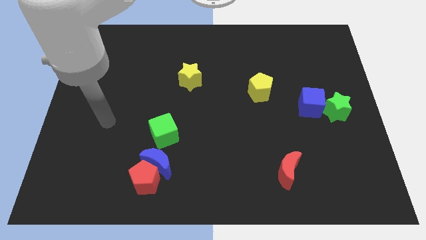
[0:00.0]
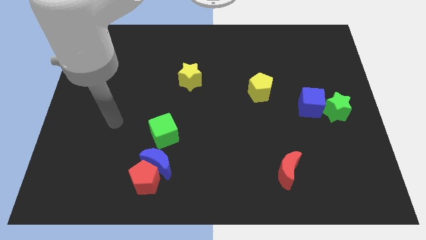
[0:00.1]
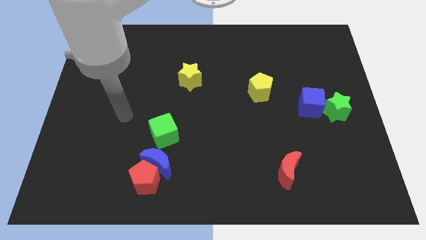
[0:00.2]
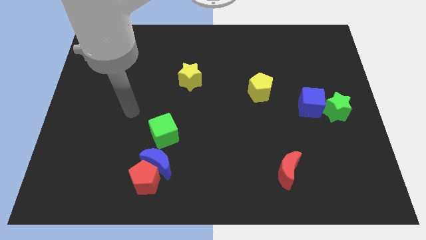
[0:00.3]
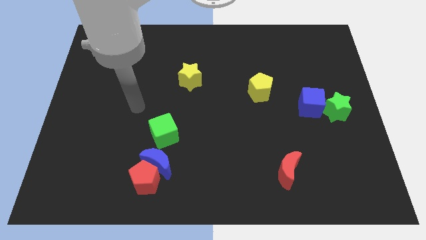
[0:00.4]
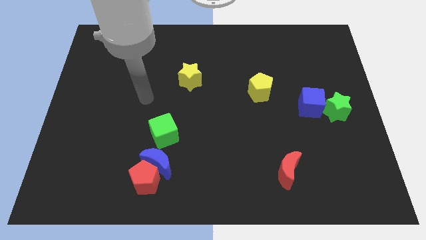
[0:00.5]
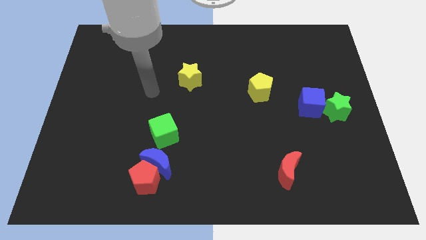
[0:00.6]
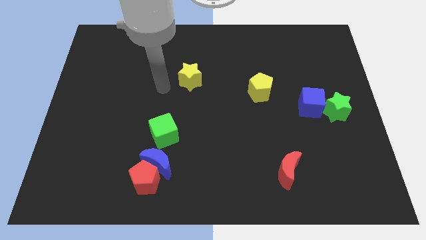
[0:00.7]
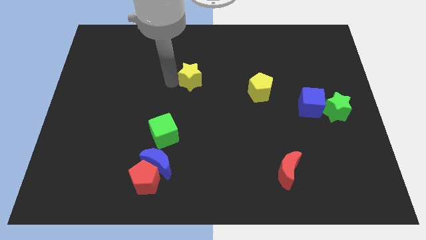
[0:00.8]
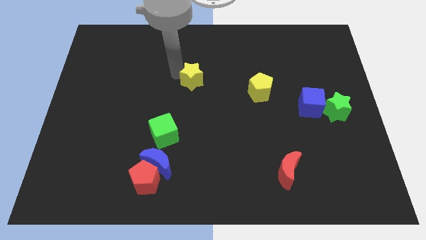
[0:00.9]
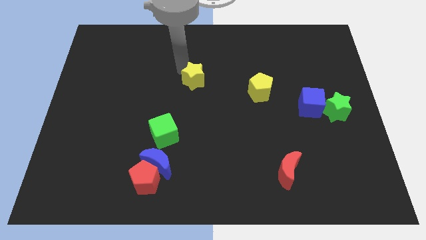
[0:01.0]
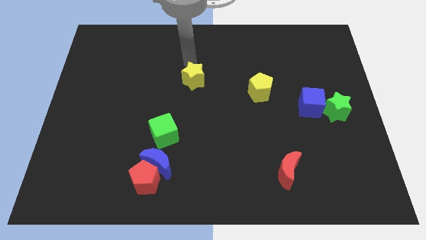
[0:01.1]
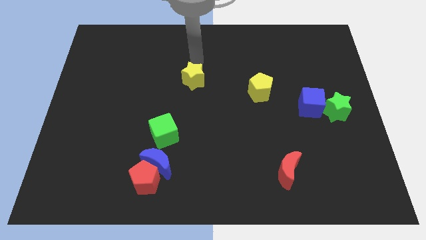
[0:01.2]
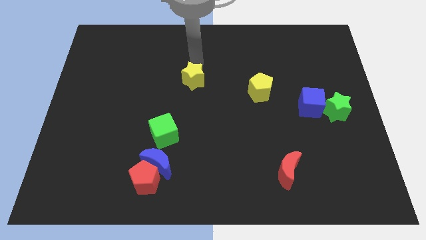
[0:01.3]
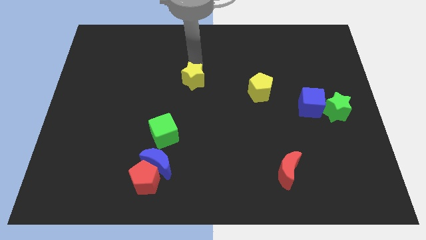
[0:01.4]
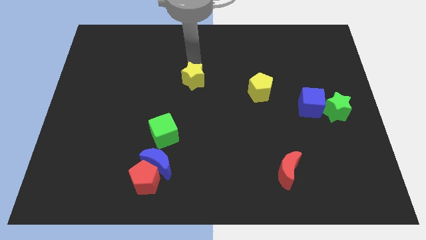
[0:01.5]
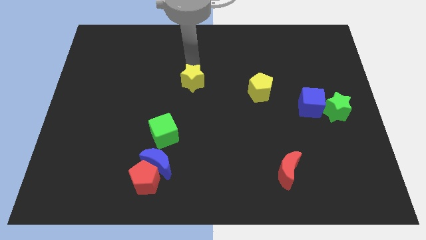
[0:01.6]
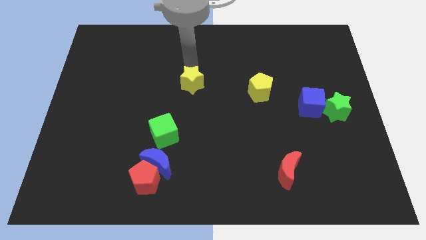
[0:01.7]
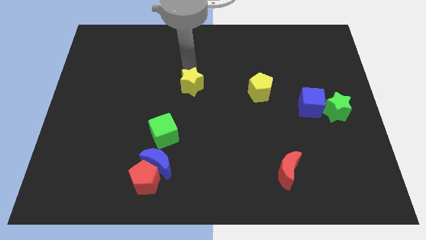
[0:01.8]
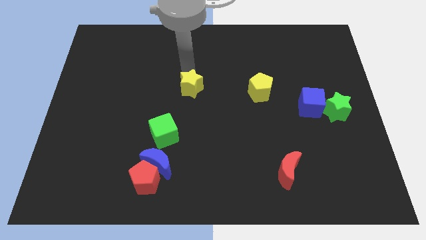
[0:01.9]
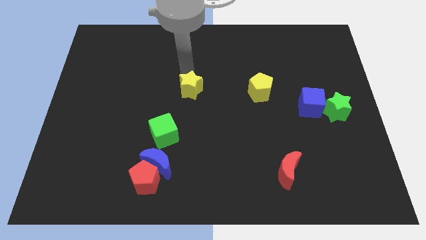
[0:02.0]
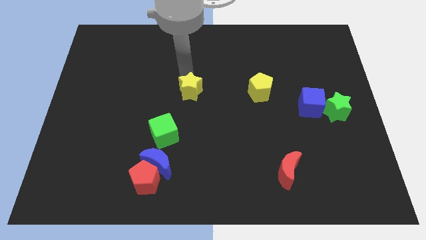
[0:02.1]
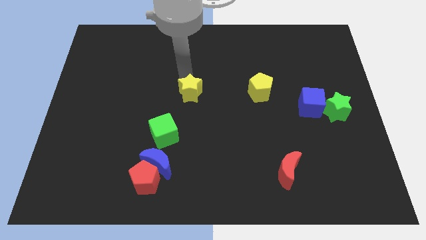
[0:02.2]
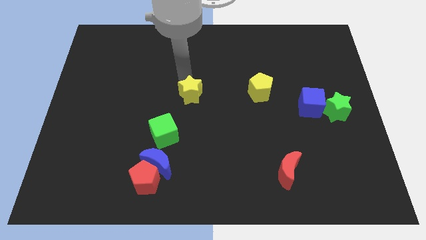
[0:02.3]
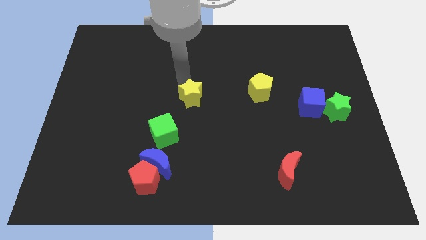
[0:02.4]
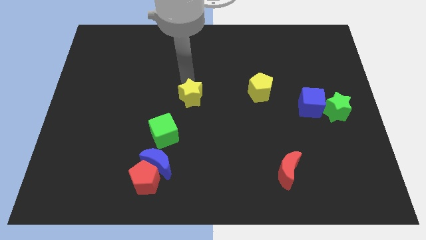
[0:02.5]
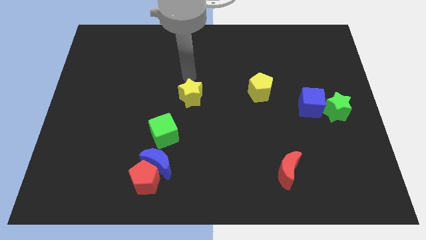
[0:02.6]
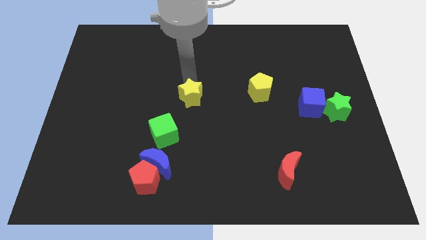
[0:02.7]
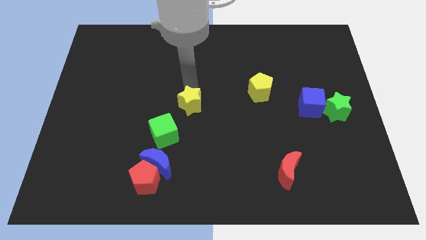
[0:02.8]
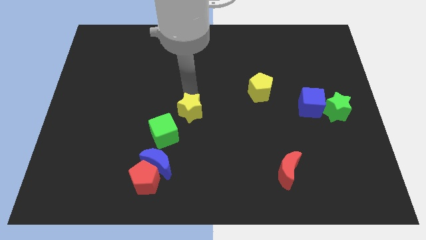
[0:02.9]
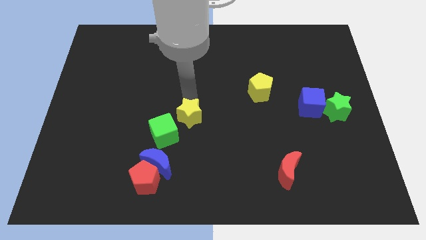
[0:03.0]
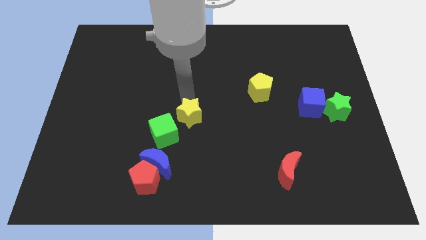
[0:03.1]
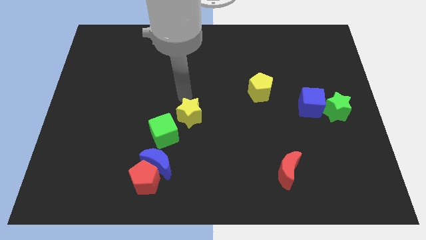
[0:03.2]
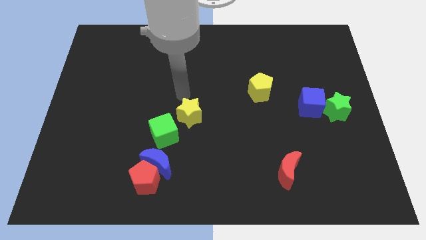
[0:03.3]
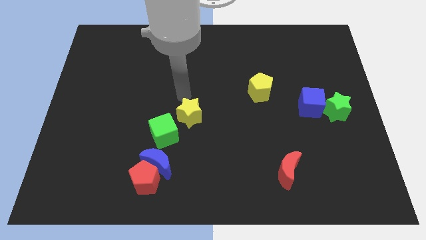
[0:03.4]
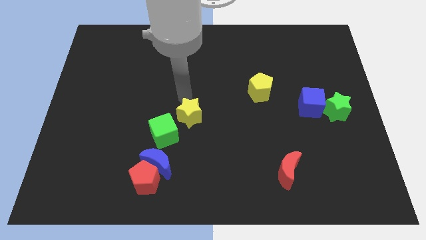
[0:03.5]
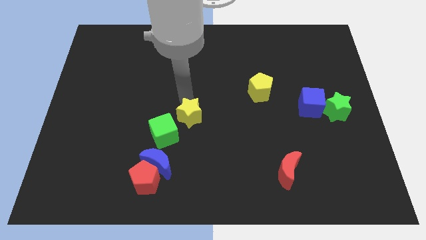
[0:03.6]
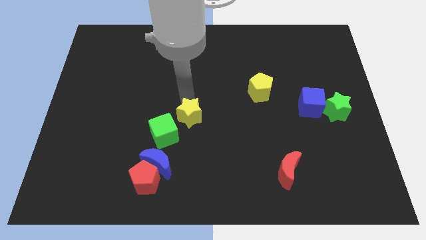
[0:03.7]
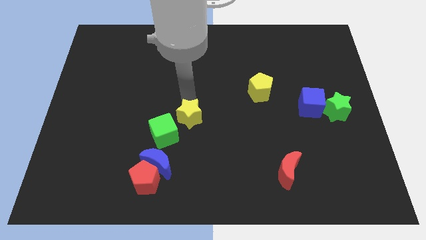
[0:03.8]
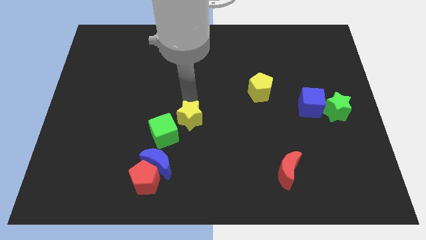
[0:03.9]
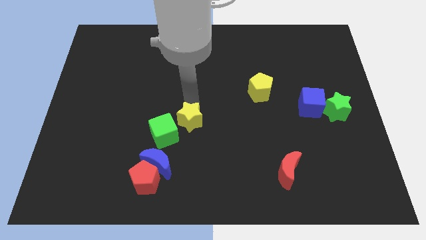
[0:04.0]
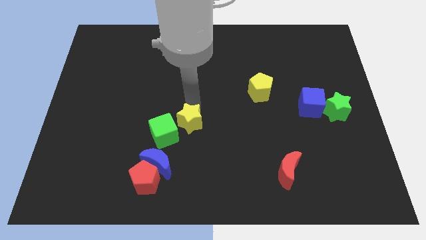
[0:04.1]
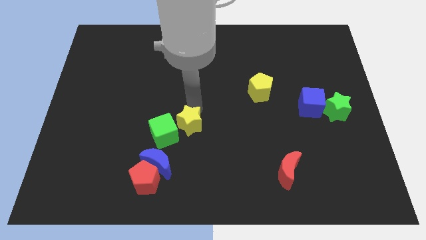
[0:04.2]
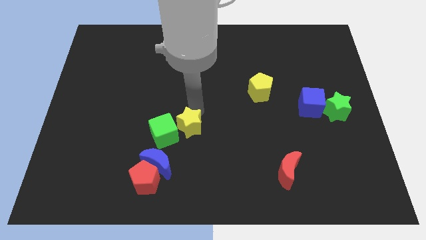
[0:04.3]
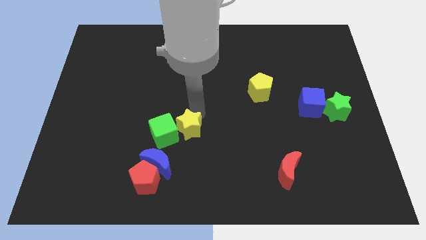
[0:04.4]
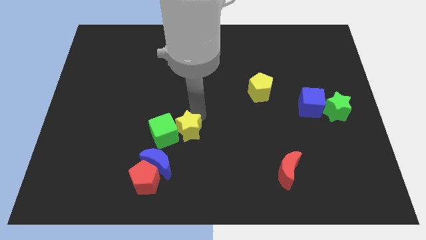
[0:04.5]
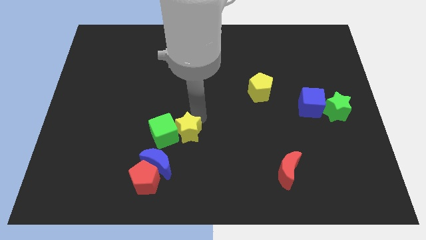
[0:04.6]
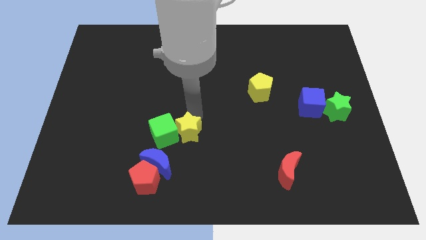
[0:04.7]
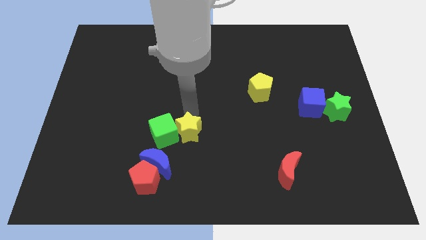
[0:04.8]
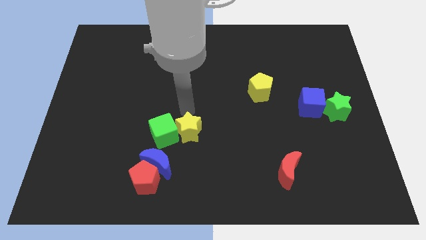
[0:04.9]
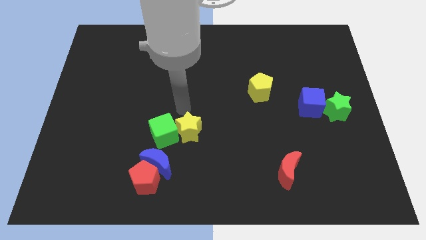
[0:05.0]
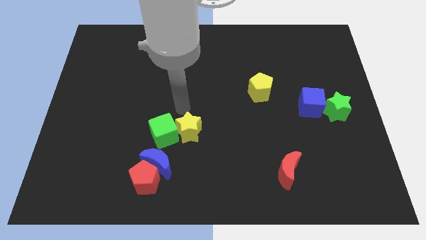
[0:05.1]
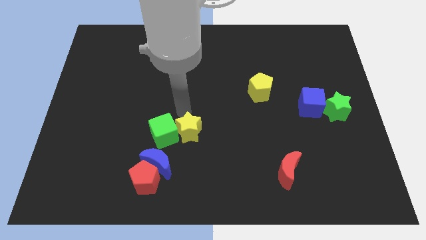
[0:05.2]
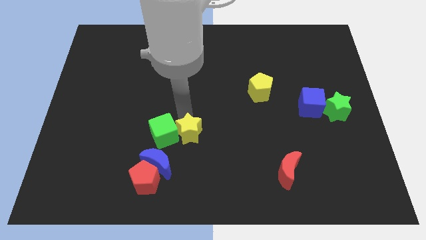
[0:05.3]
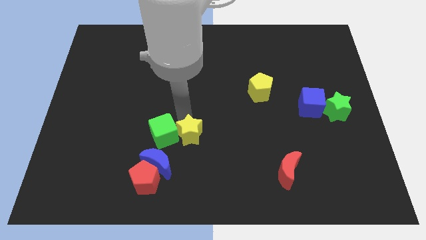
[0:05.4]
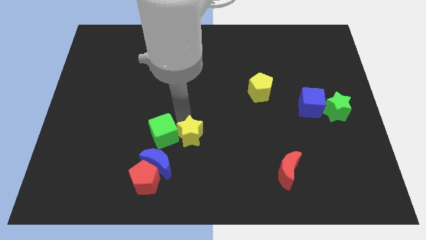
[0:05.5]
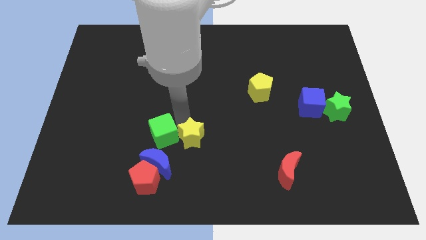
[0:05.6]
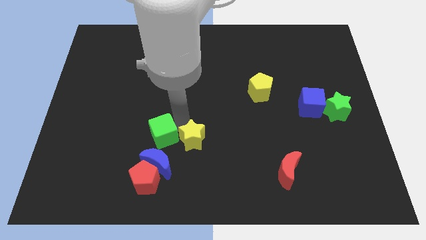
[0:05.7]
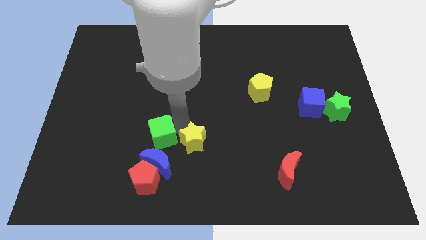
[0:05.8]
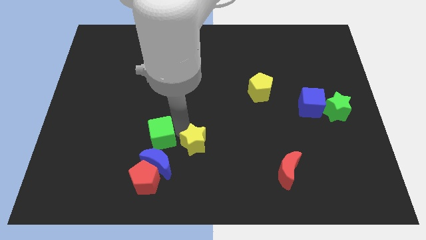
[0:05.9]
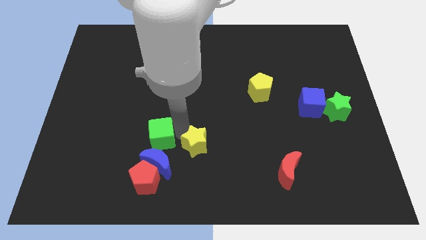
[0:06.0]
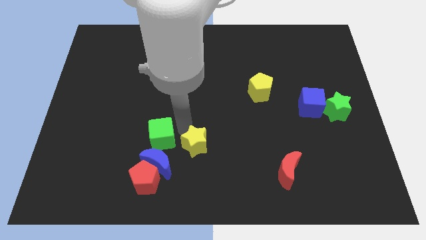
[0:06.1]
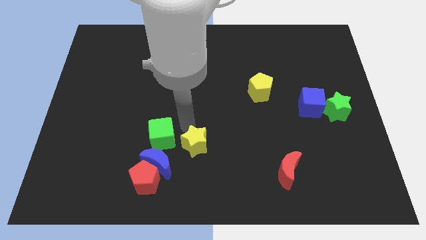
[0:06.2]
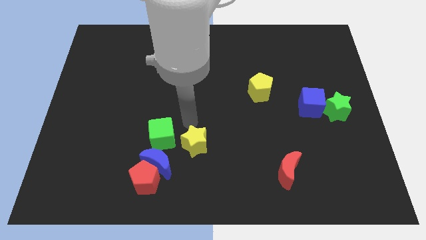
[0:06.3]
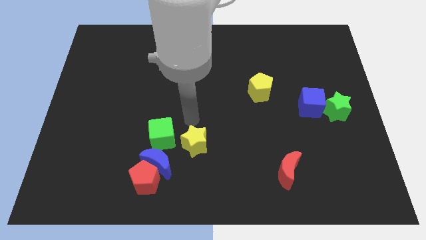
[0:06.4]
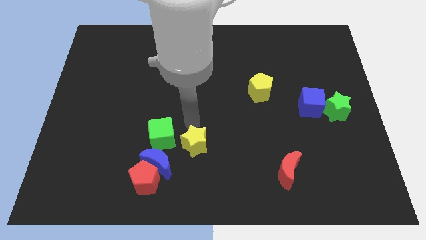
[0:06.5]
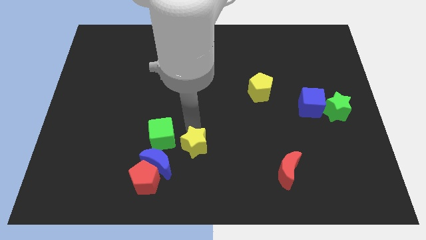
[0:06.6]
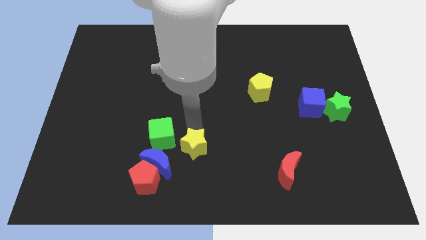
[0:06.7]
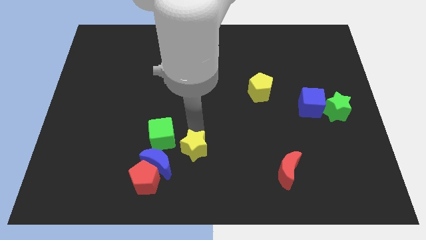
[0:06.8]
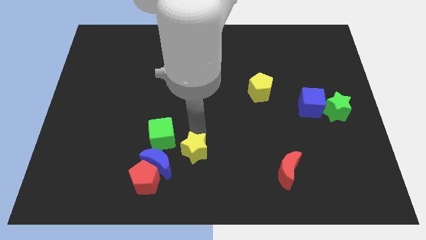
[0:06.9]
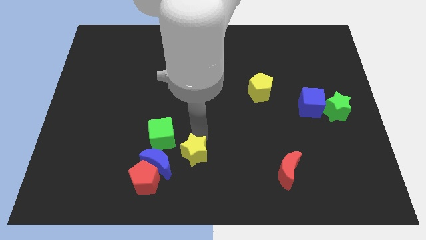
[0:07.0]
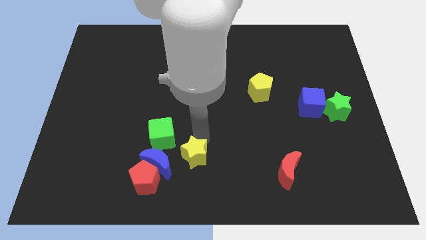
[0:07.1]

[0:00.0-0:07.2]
put the yellow star to the bottom

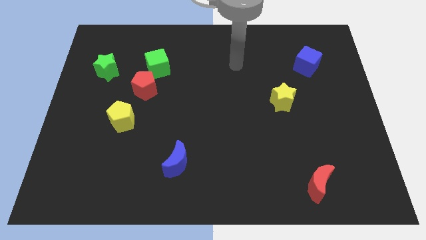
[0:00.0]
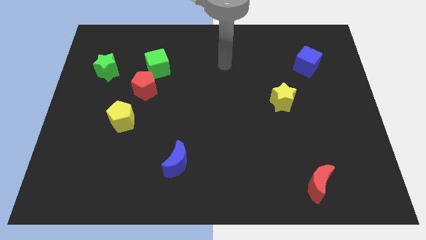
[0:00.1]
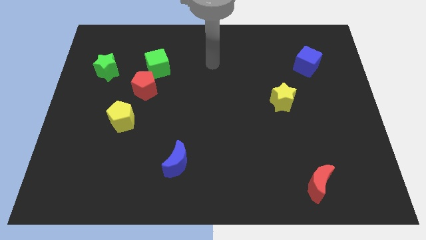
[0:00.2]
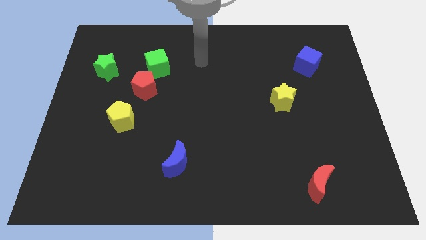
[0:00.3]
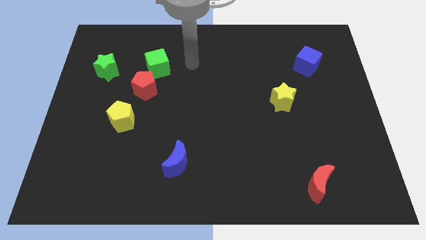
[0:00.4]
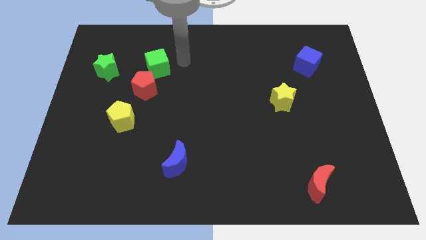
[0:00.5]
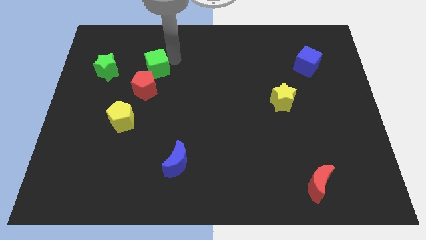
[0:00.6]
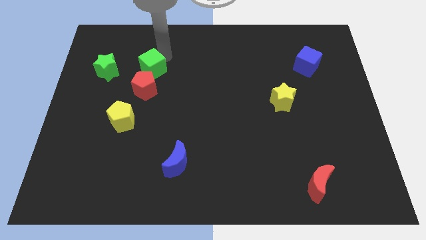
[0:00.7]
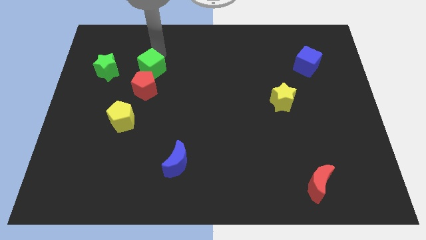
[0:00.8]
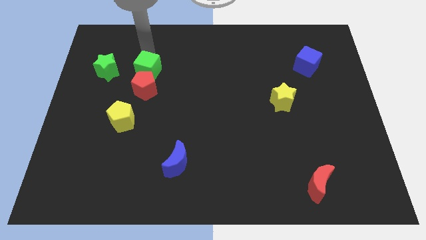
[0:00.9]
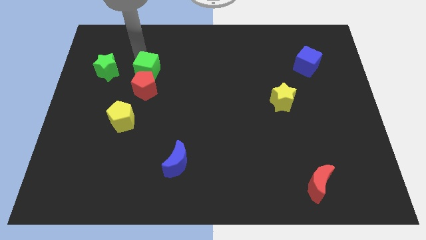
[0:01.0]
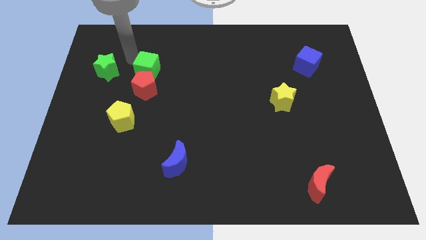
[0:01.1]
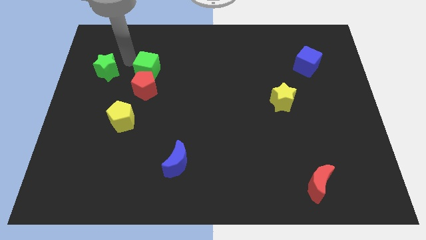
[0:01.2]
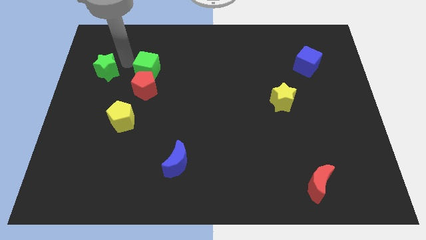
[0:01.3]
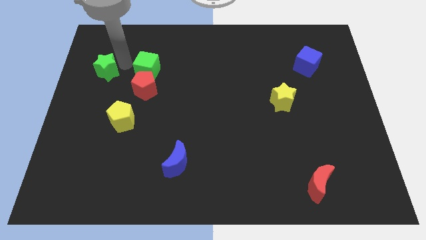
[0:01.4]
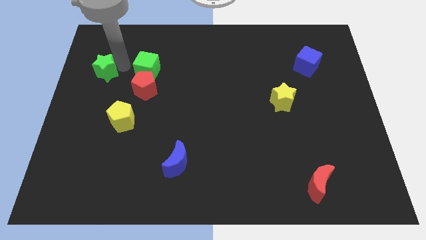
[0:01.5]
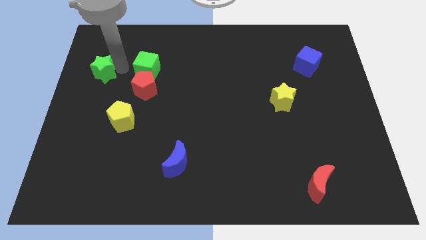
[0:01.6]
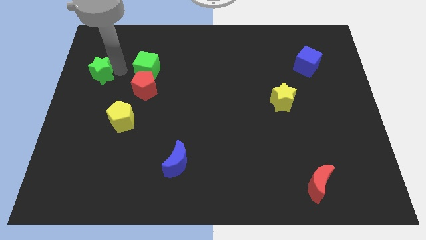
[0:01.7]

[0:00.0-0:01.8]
push the green star to the left side
